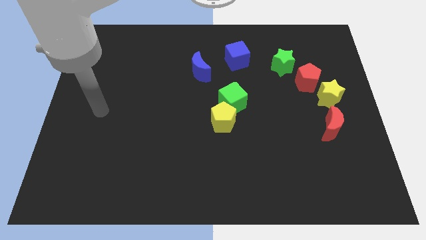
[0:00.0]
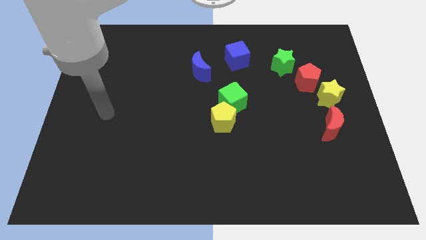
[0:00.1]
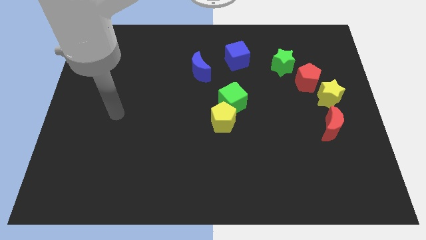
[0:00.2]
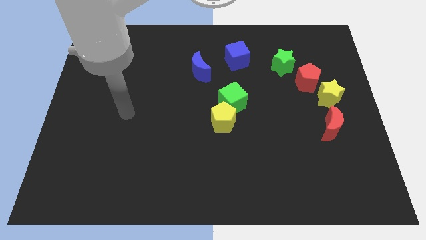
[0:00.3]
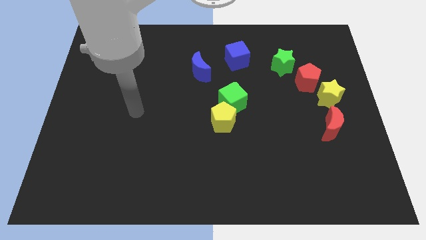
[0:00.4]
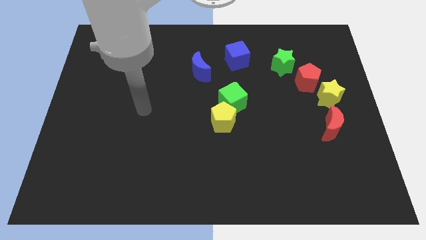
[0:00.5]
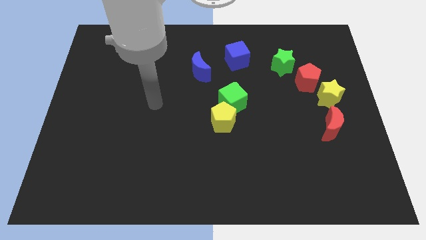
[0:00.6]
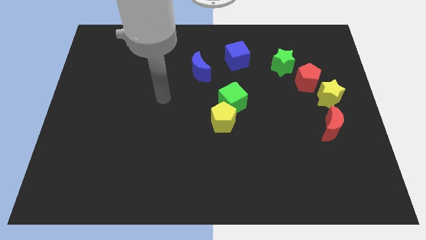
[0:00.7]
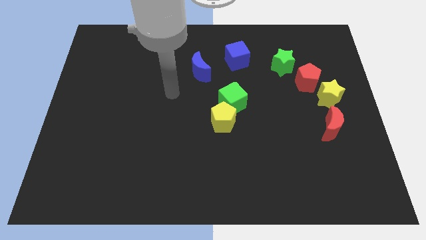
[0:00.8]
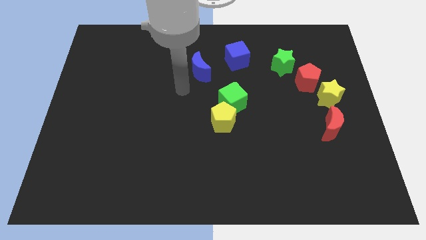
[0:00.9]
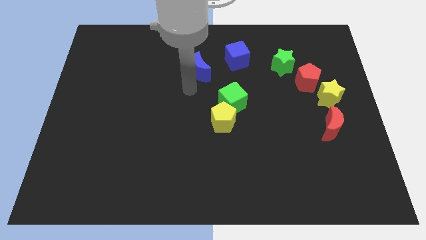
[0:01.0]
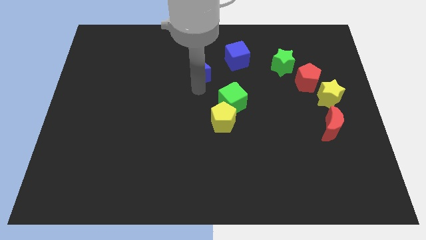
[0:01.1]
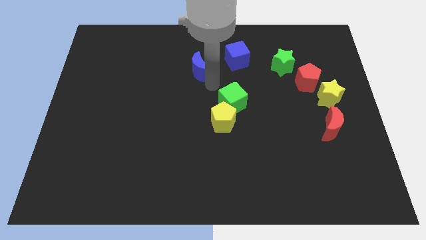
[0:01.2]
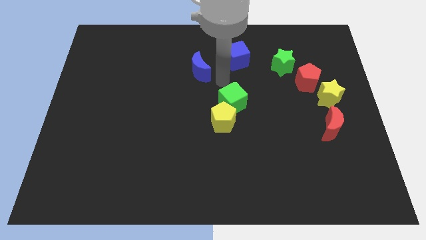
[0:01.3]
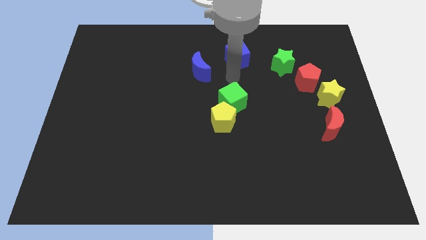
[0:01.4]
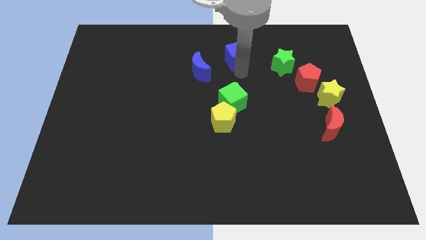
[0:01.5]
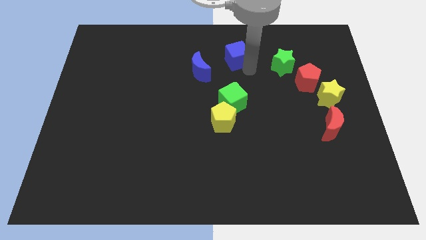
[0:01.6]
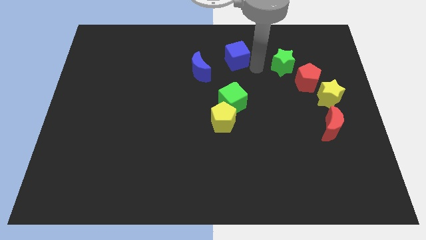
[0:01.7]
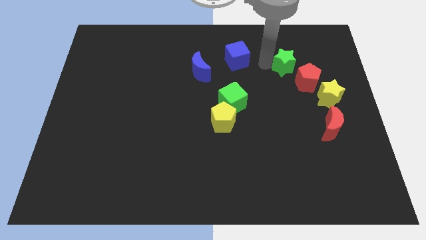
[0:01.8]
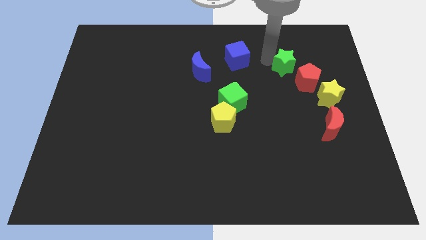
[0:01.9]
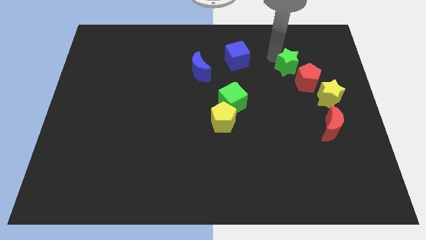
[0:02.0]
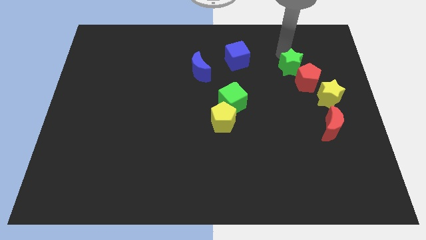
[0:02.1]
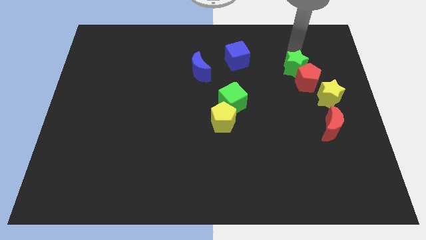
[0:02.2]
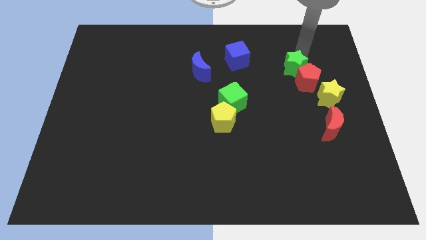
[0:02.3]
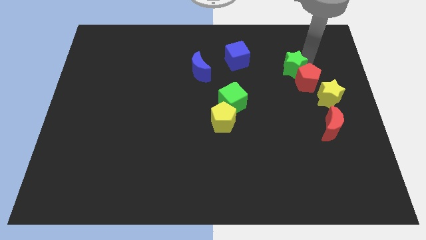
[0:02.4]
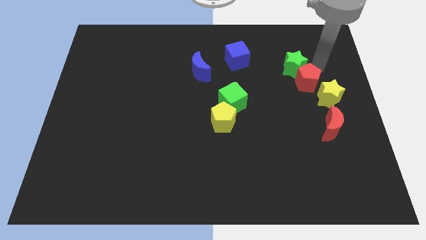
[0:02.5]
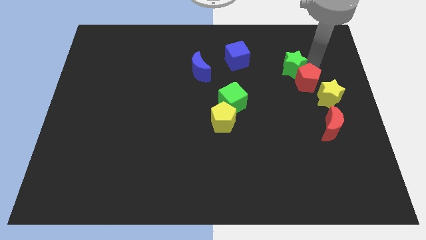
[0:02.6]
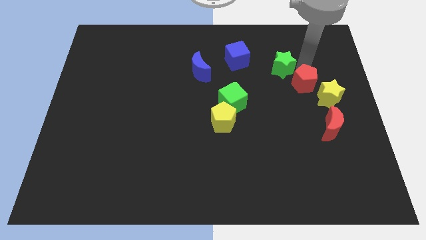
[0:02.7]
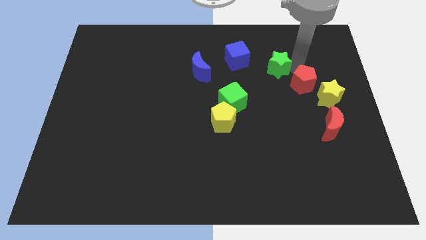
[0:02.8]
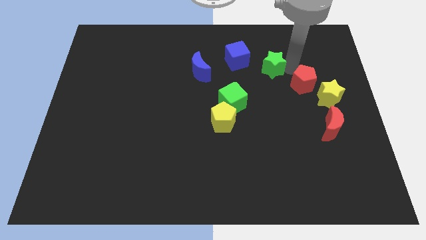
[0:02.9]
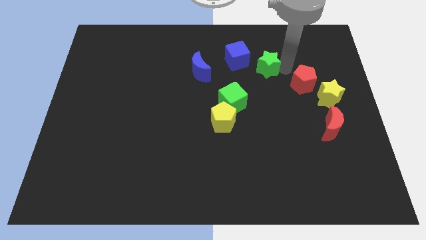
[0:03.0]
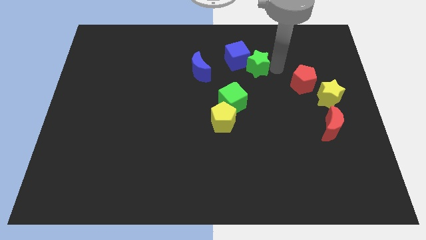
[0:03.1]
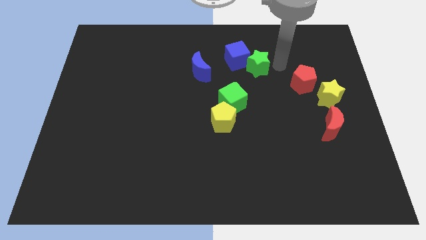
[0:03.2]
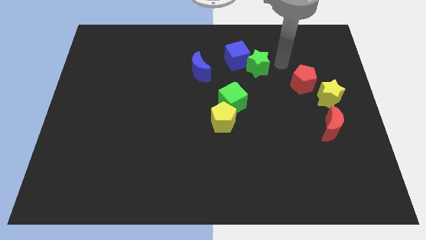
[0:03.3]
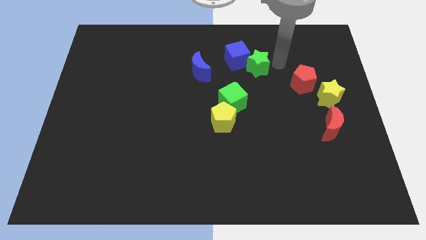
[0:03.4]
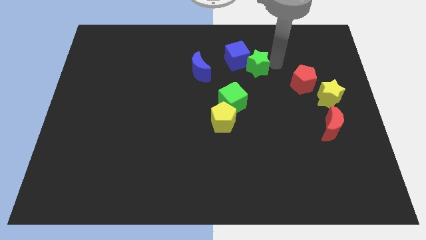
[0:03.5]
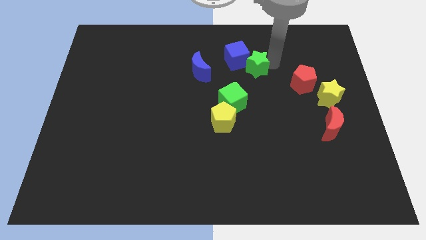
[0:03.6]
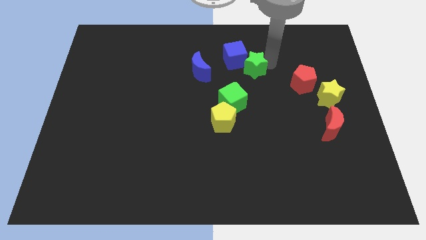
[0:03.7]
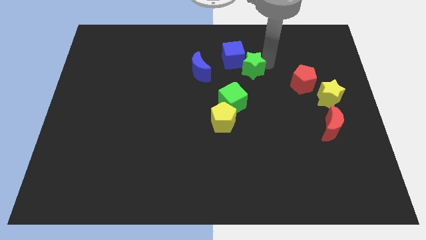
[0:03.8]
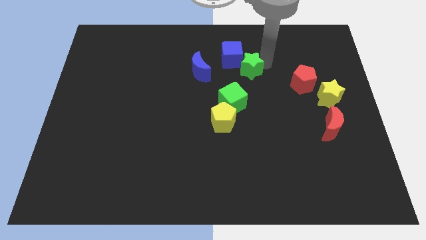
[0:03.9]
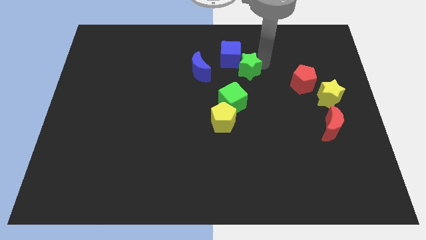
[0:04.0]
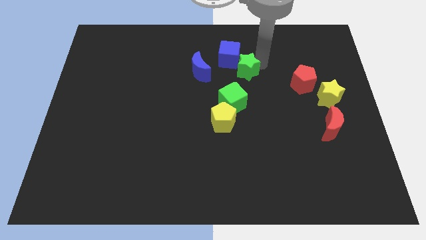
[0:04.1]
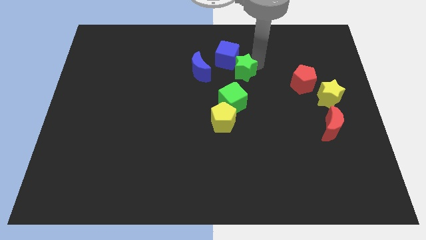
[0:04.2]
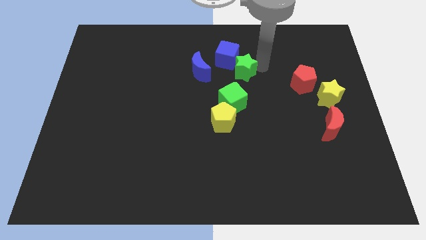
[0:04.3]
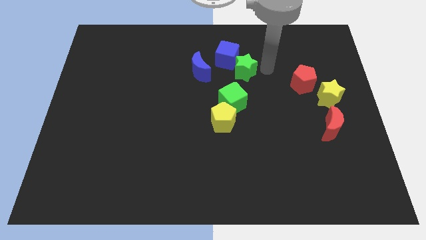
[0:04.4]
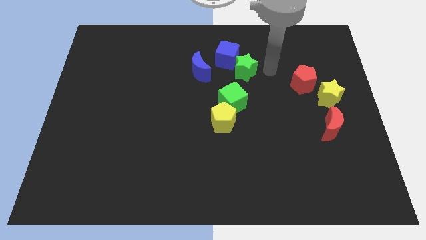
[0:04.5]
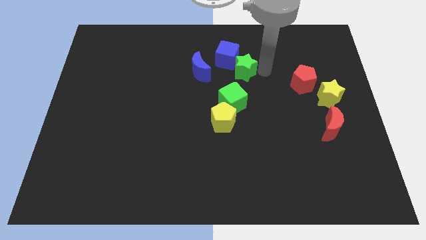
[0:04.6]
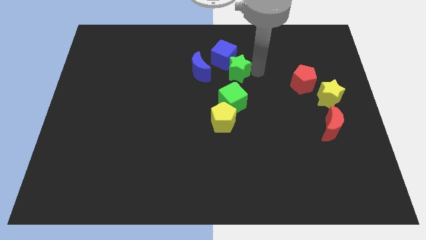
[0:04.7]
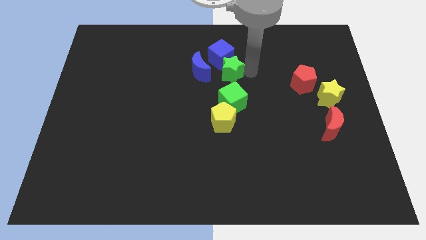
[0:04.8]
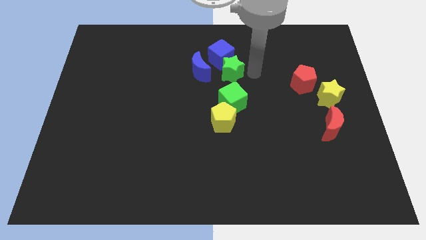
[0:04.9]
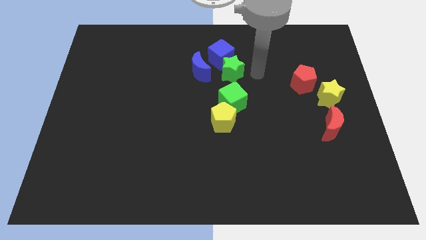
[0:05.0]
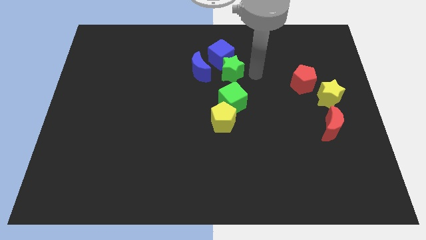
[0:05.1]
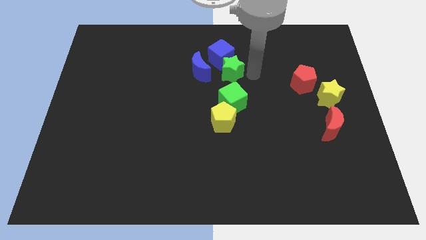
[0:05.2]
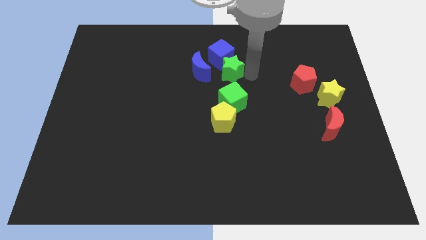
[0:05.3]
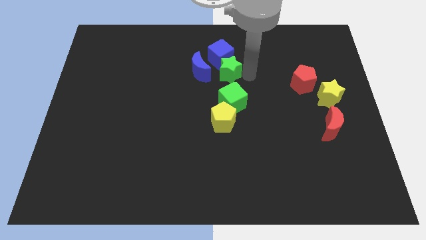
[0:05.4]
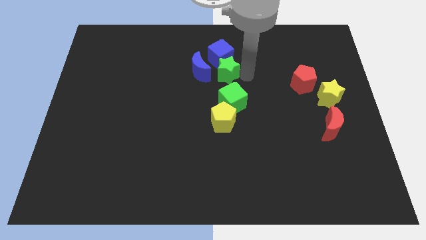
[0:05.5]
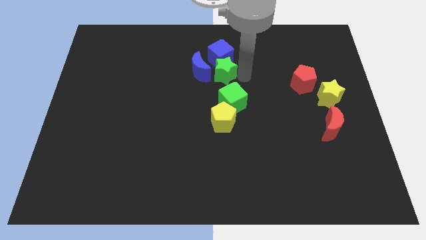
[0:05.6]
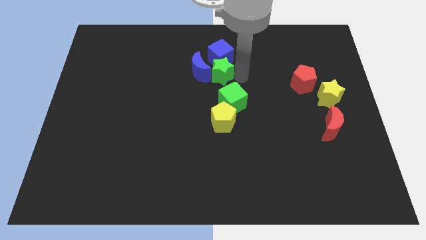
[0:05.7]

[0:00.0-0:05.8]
move the green star close to the blue moon

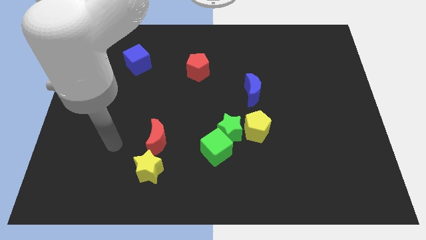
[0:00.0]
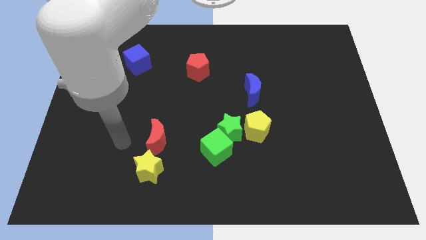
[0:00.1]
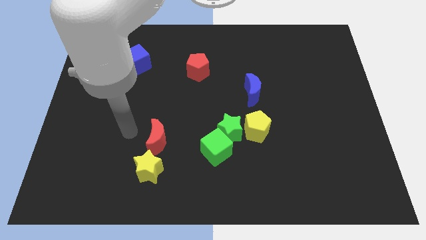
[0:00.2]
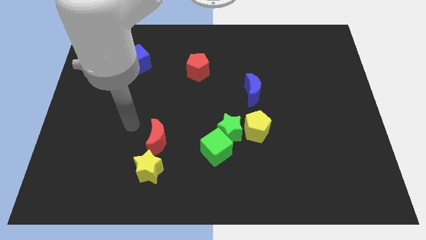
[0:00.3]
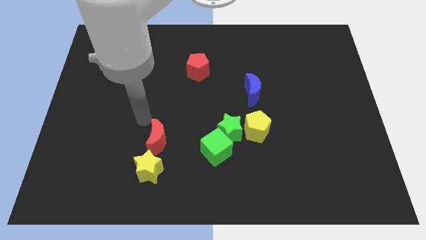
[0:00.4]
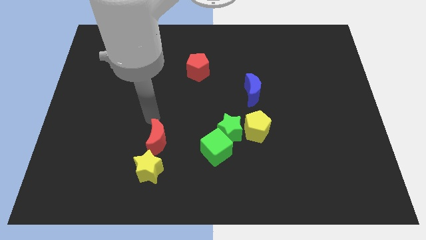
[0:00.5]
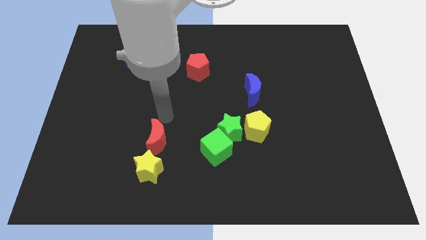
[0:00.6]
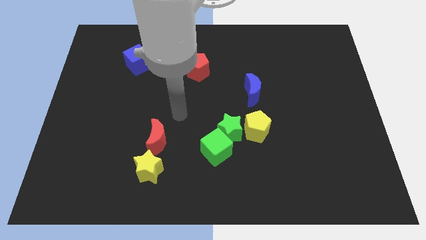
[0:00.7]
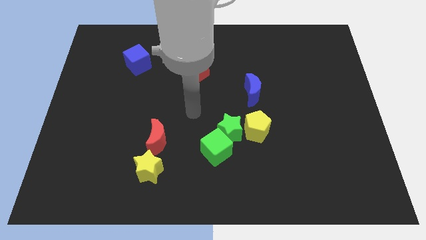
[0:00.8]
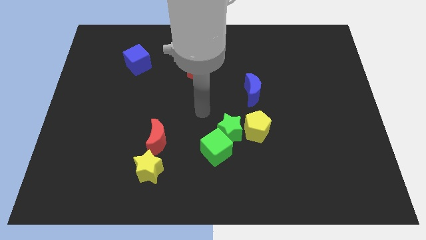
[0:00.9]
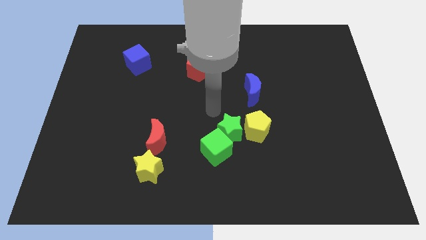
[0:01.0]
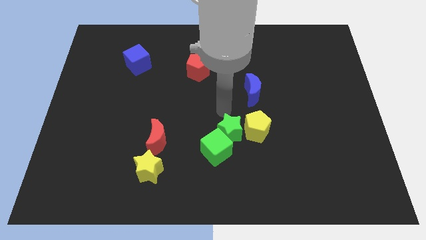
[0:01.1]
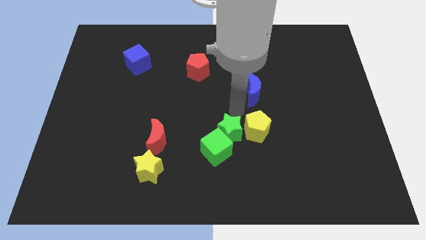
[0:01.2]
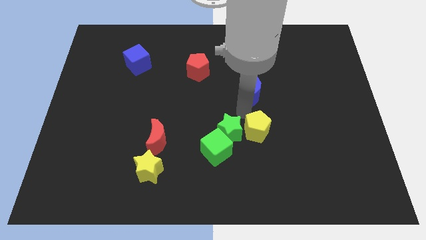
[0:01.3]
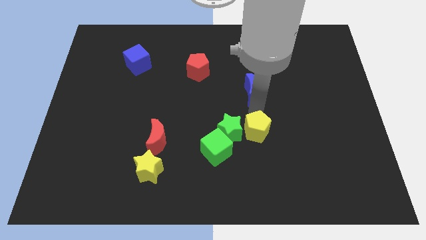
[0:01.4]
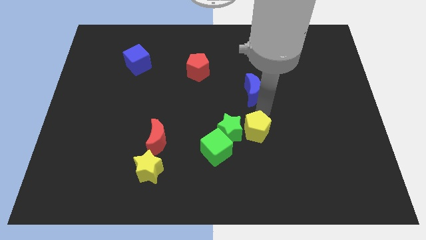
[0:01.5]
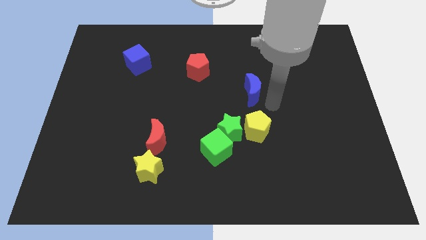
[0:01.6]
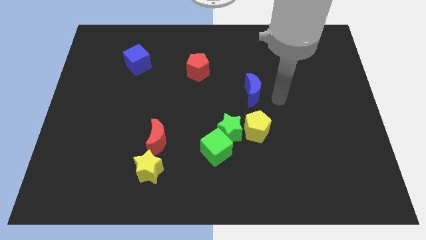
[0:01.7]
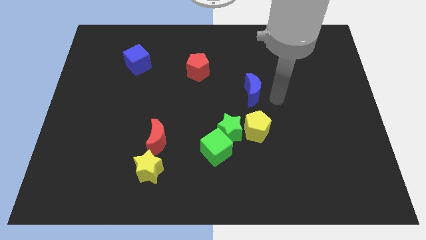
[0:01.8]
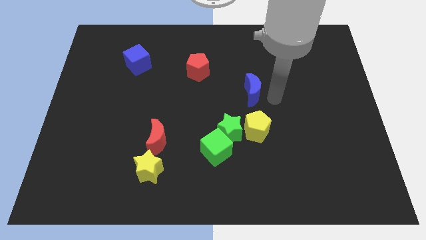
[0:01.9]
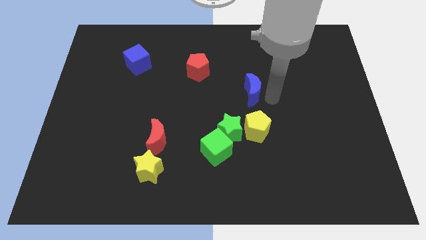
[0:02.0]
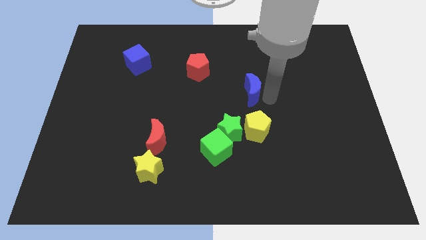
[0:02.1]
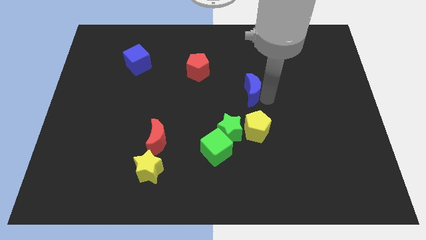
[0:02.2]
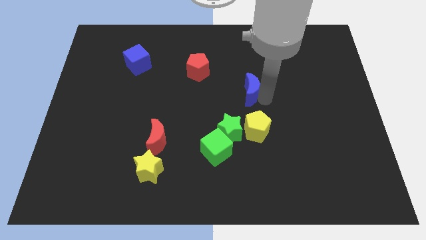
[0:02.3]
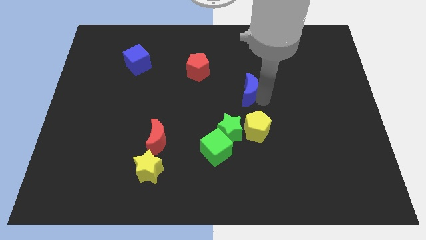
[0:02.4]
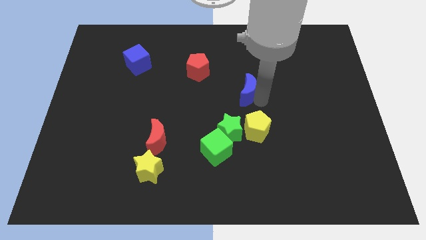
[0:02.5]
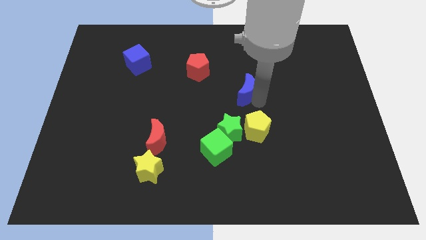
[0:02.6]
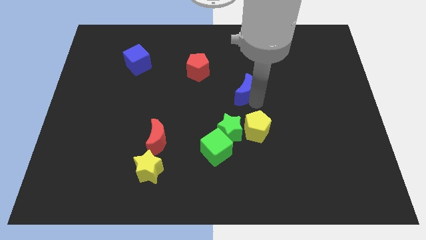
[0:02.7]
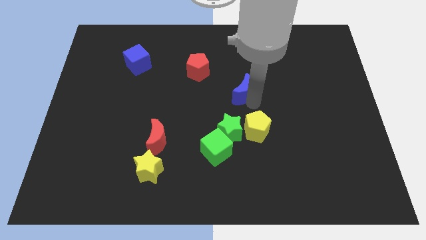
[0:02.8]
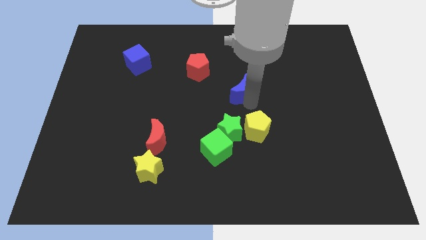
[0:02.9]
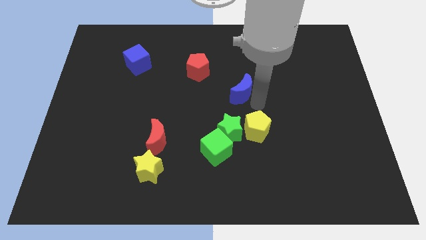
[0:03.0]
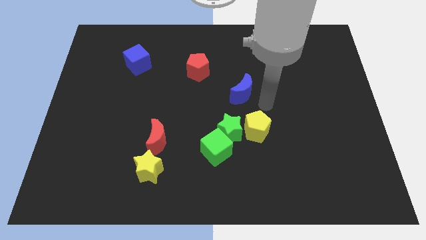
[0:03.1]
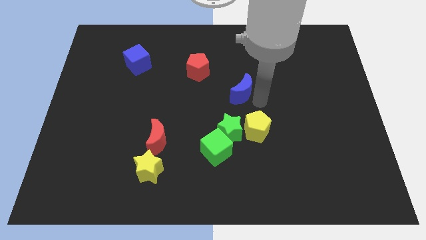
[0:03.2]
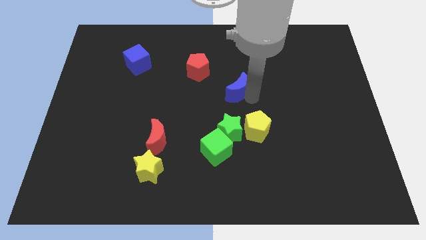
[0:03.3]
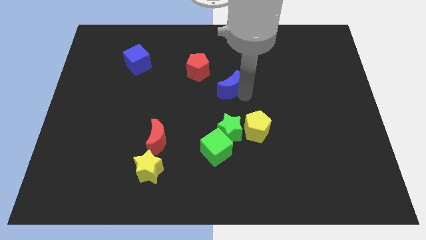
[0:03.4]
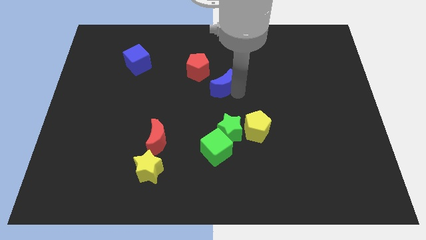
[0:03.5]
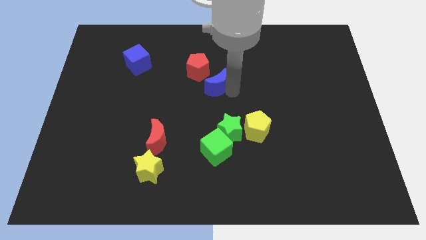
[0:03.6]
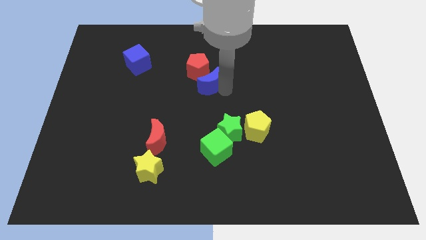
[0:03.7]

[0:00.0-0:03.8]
push the blue moon to the red pentagon
